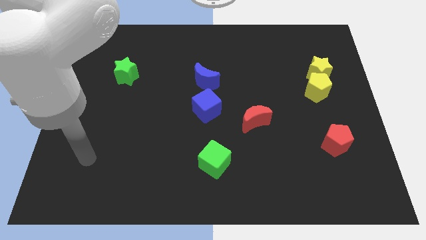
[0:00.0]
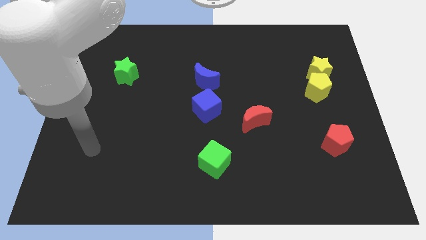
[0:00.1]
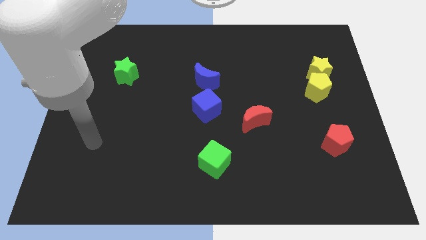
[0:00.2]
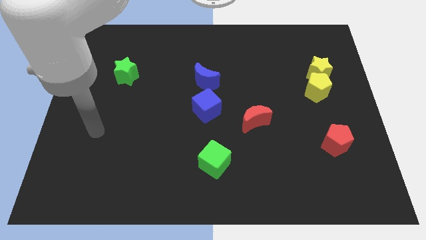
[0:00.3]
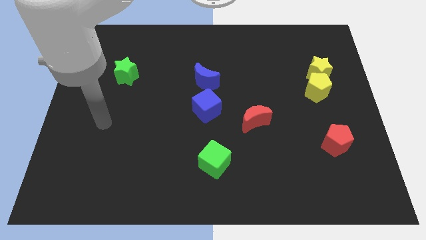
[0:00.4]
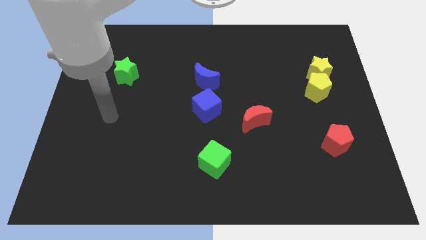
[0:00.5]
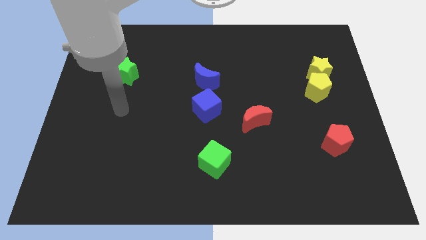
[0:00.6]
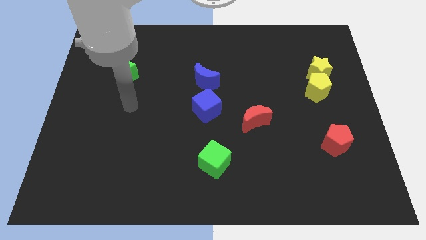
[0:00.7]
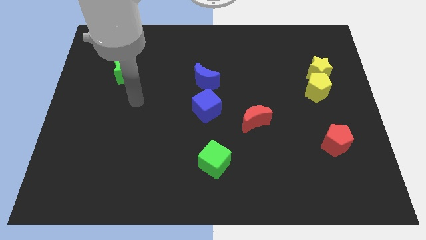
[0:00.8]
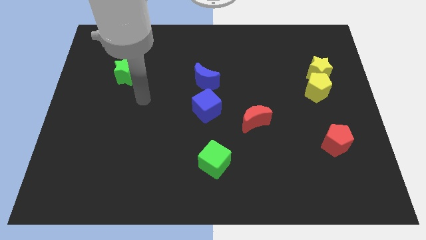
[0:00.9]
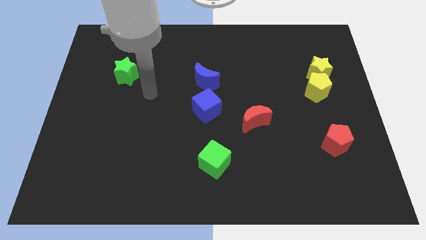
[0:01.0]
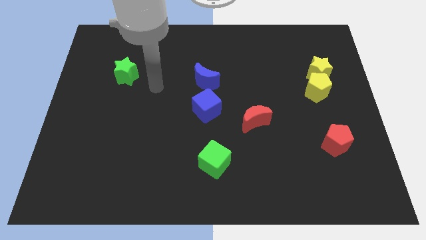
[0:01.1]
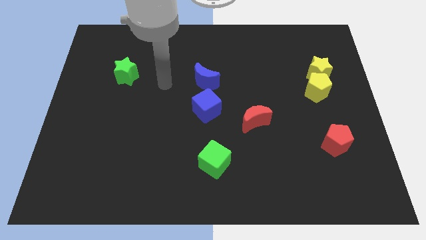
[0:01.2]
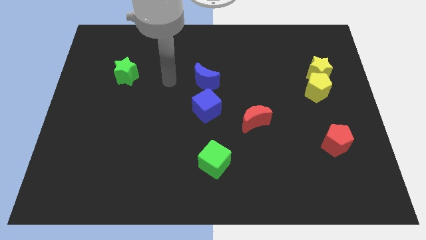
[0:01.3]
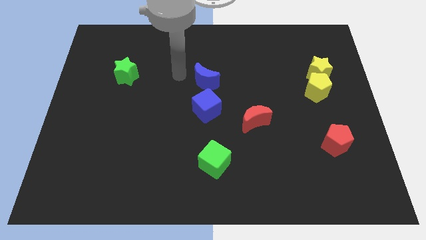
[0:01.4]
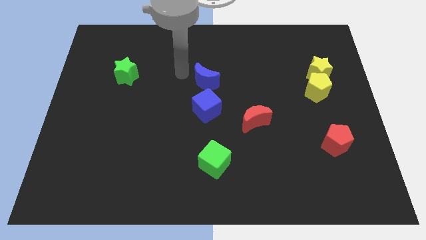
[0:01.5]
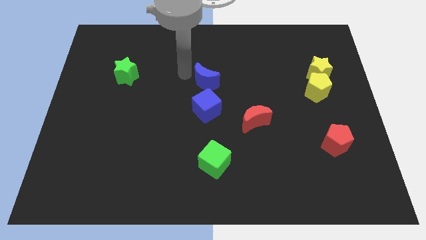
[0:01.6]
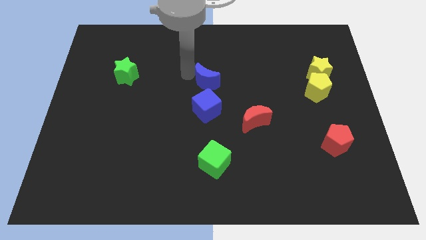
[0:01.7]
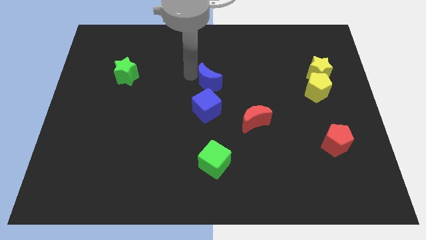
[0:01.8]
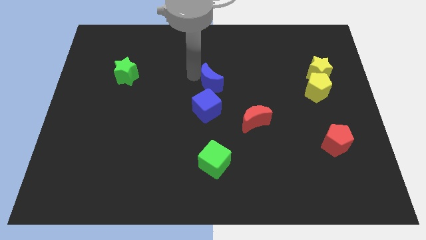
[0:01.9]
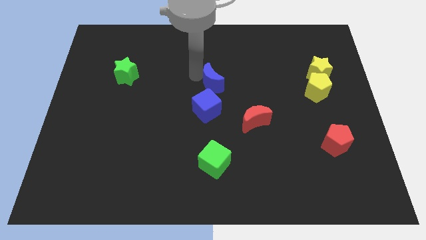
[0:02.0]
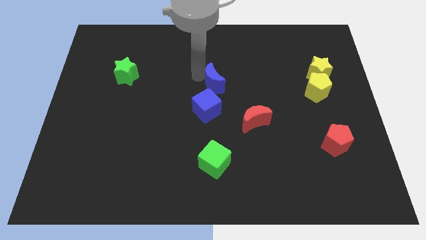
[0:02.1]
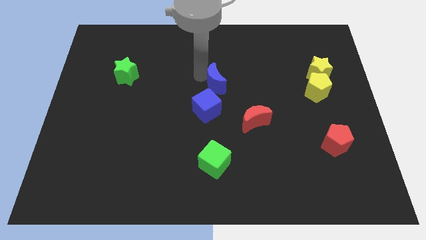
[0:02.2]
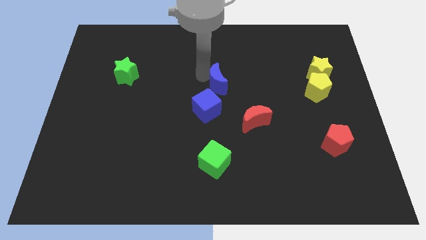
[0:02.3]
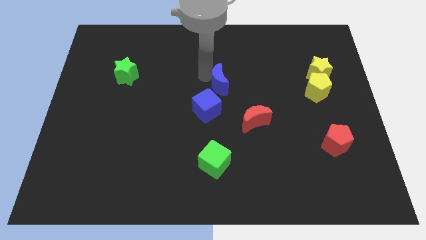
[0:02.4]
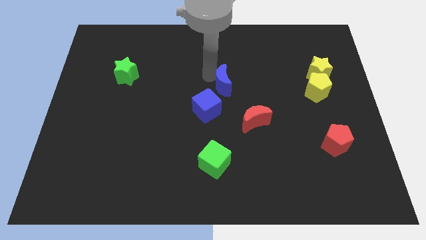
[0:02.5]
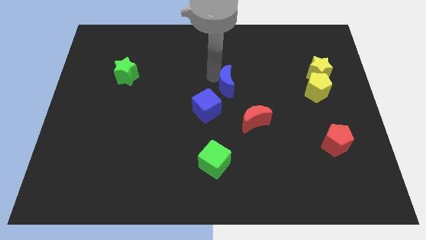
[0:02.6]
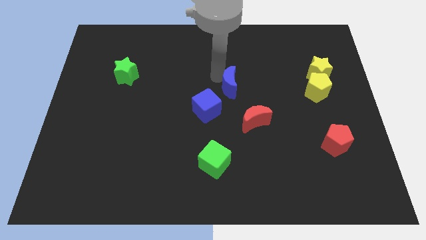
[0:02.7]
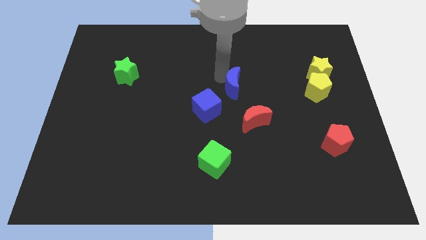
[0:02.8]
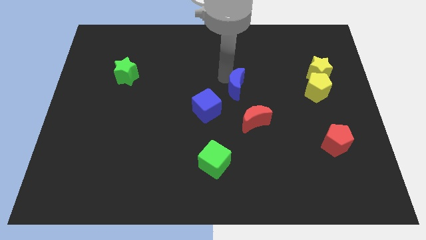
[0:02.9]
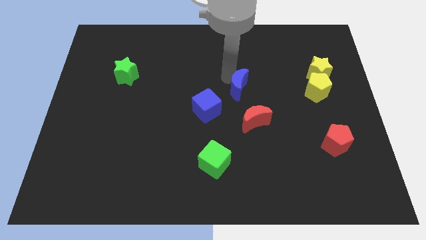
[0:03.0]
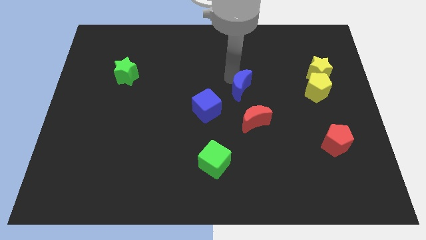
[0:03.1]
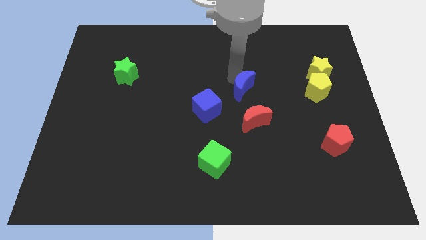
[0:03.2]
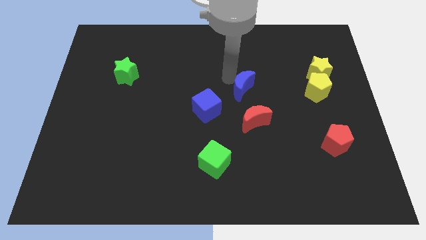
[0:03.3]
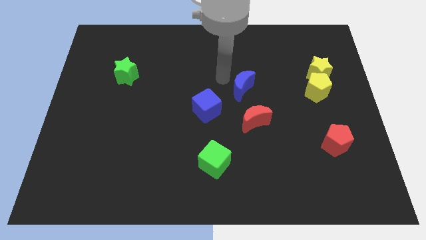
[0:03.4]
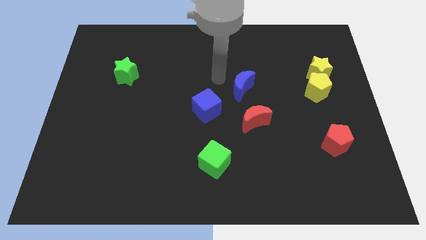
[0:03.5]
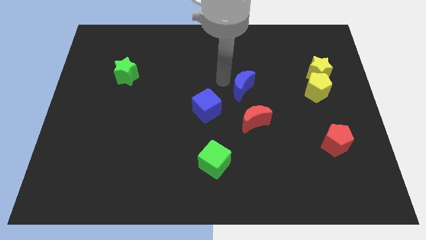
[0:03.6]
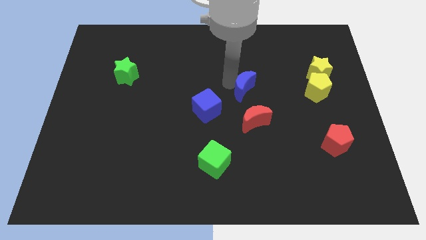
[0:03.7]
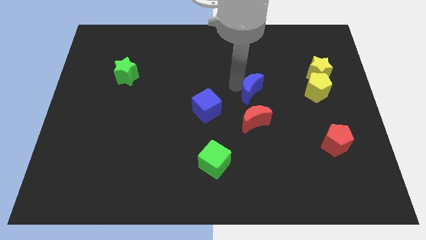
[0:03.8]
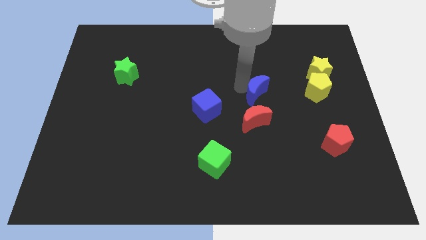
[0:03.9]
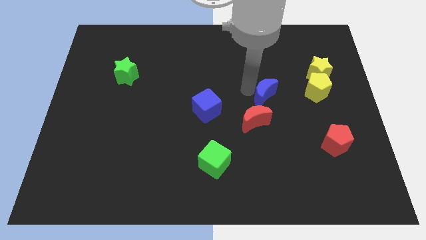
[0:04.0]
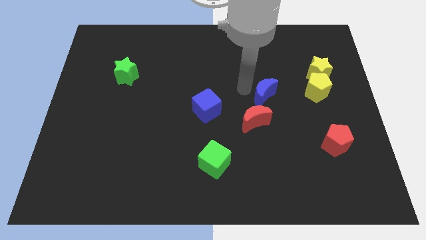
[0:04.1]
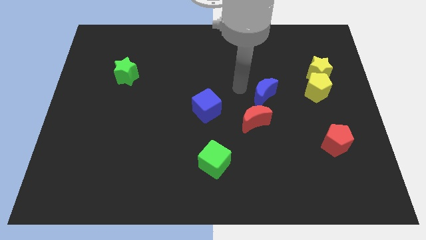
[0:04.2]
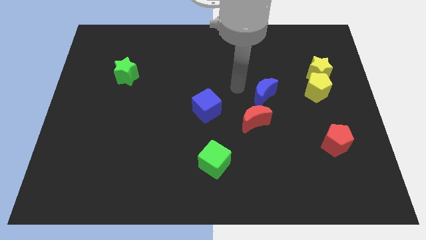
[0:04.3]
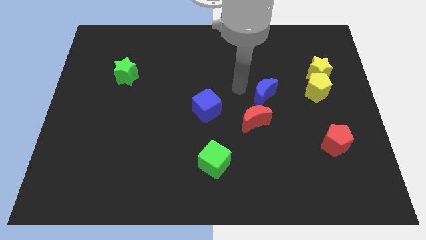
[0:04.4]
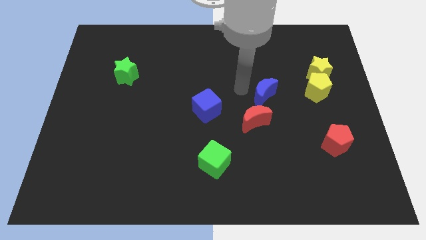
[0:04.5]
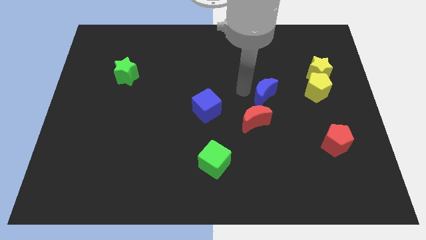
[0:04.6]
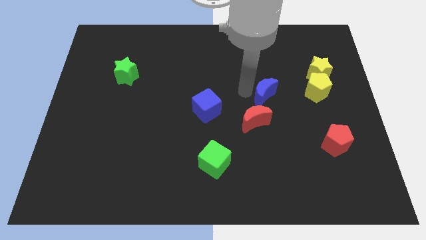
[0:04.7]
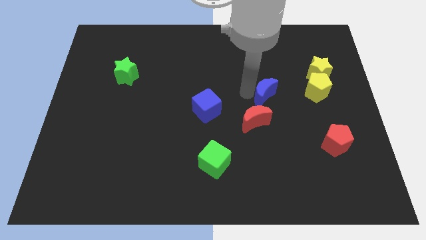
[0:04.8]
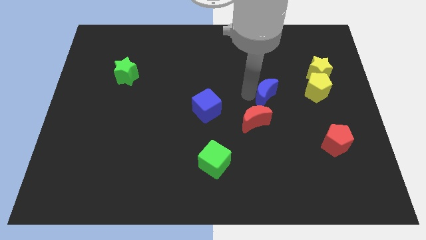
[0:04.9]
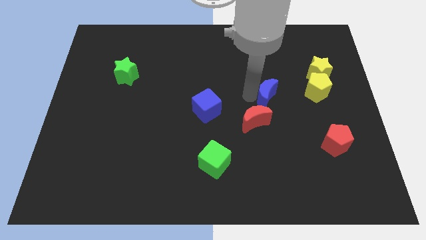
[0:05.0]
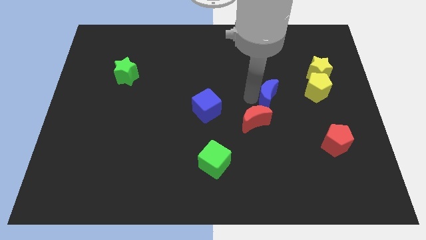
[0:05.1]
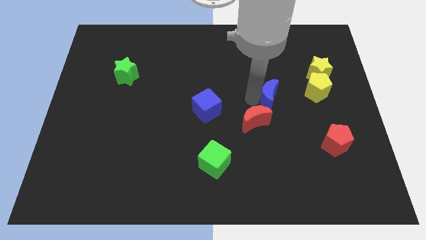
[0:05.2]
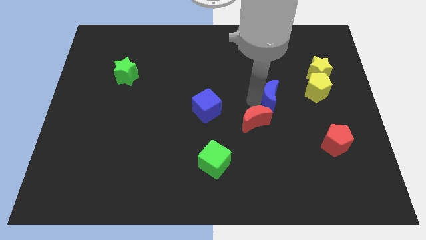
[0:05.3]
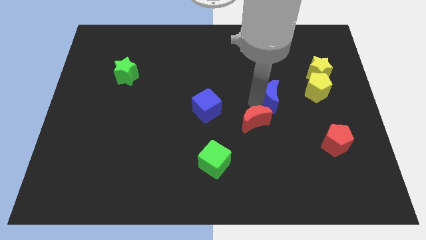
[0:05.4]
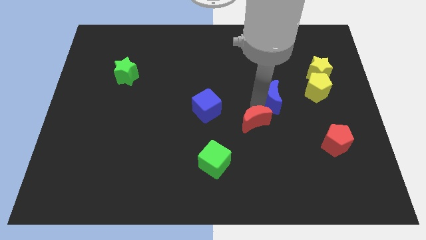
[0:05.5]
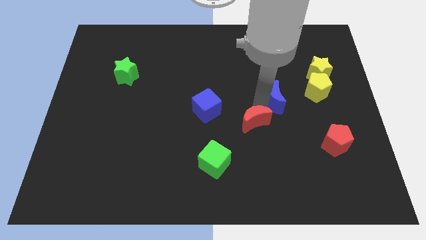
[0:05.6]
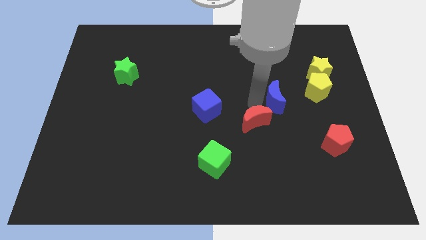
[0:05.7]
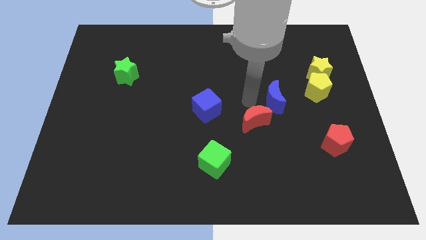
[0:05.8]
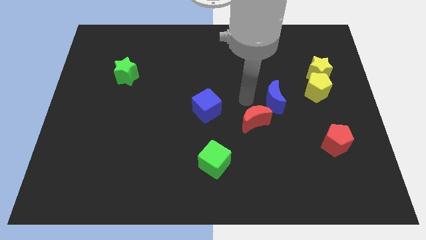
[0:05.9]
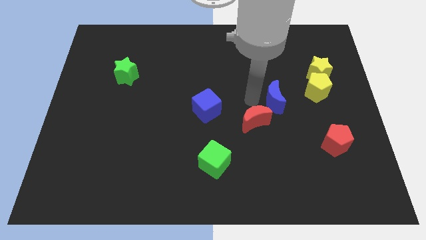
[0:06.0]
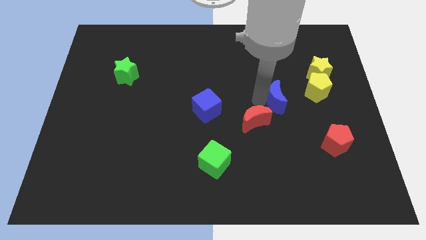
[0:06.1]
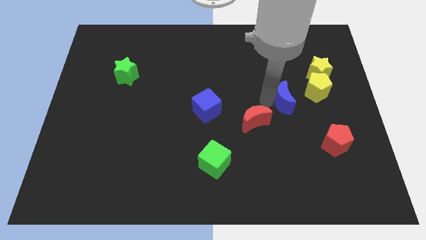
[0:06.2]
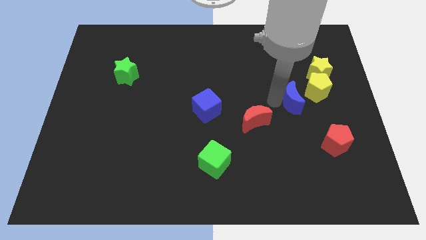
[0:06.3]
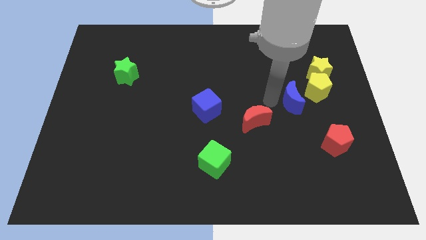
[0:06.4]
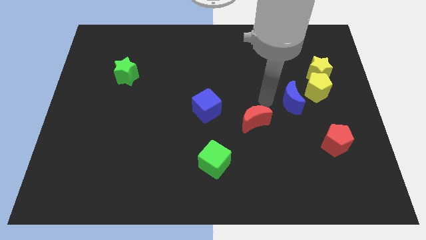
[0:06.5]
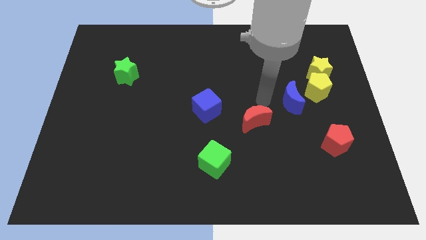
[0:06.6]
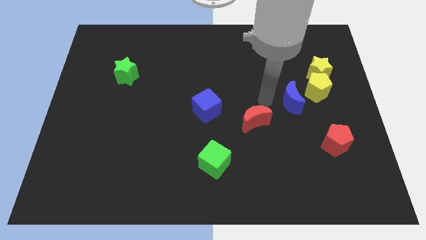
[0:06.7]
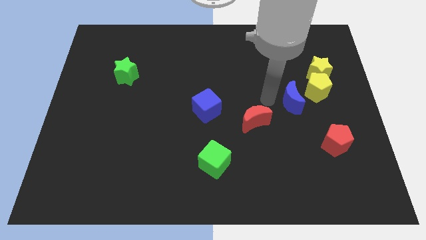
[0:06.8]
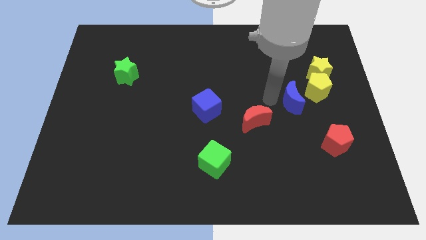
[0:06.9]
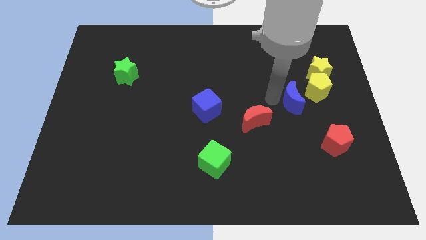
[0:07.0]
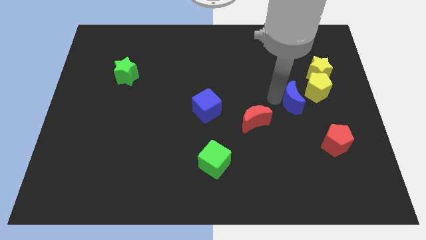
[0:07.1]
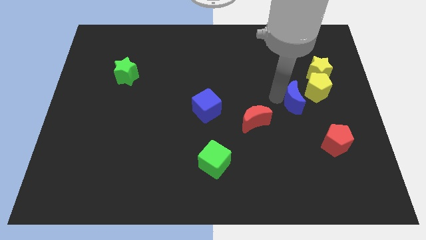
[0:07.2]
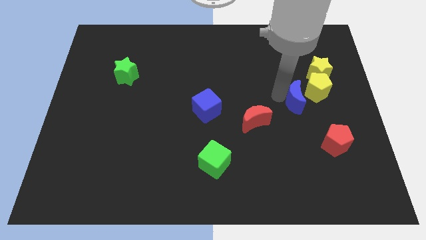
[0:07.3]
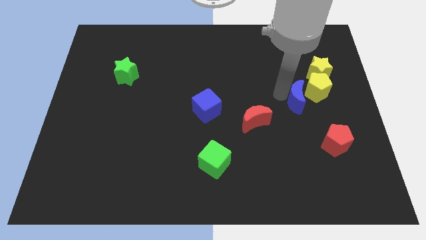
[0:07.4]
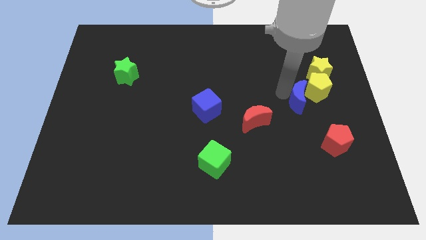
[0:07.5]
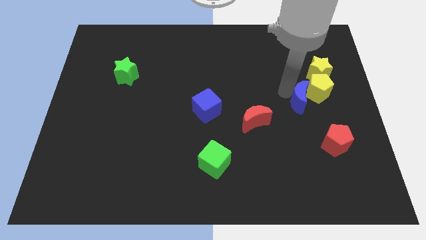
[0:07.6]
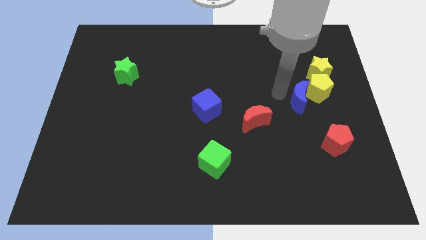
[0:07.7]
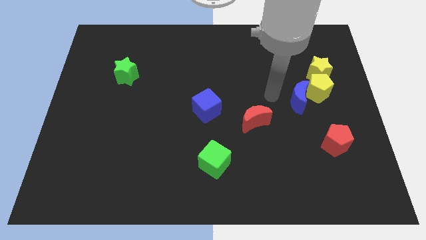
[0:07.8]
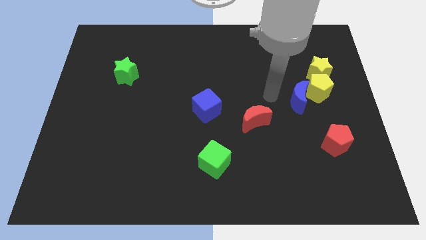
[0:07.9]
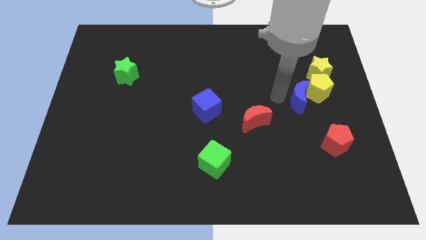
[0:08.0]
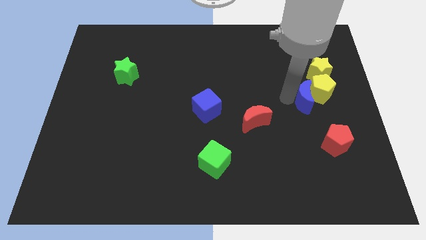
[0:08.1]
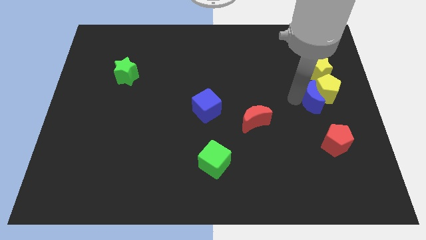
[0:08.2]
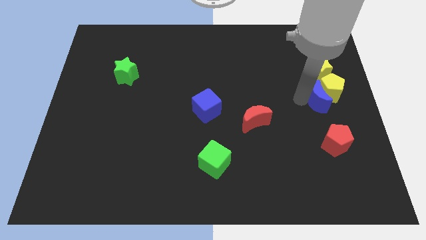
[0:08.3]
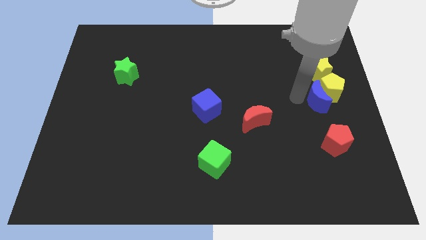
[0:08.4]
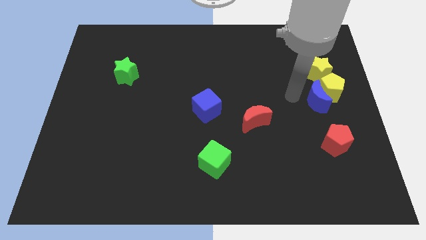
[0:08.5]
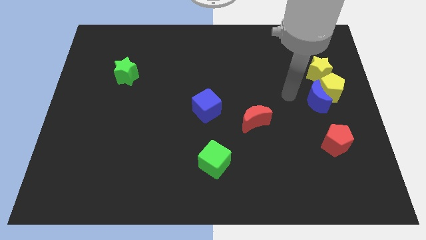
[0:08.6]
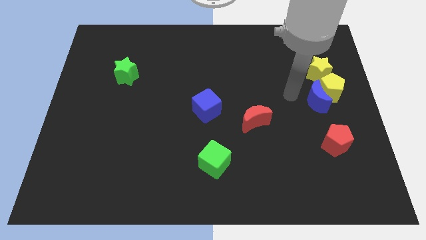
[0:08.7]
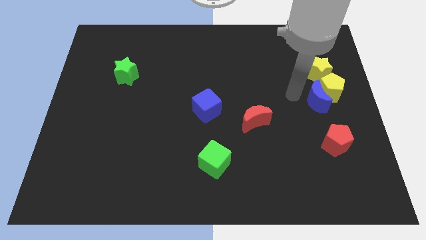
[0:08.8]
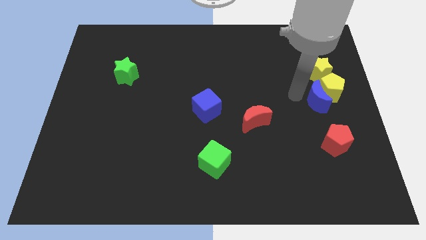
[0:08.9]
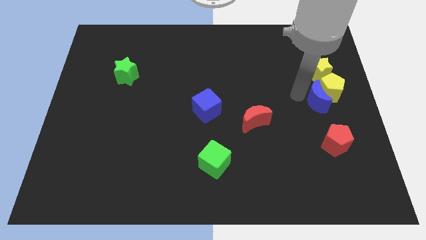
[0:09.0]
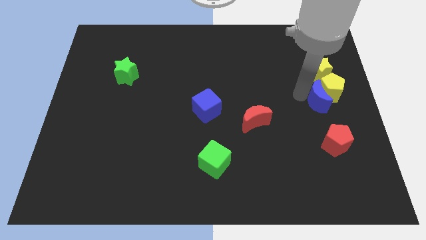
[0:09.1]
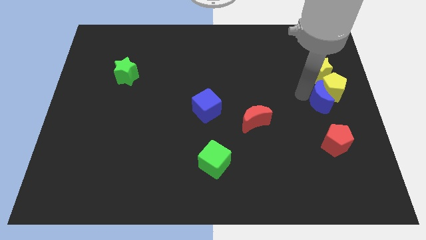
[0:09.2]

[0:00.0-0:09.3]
push the blue moon to the center right
